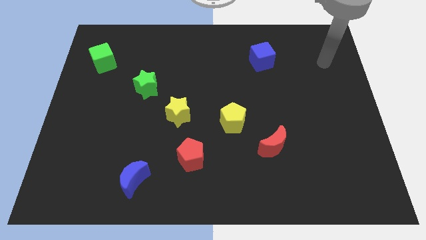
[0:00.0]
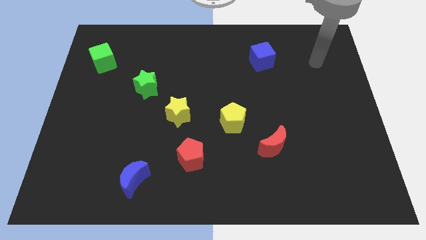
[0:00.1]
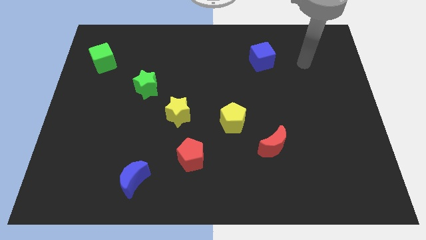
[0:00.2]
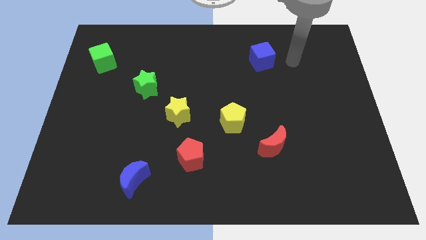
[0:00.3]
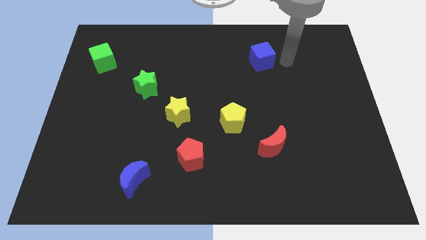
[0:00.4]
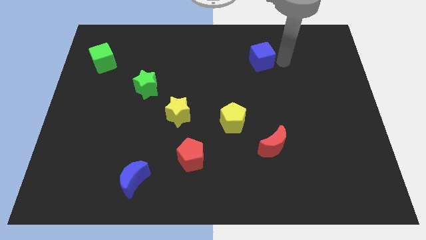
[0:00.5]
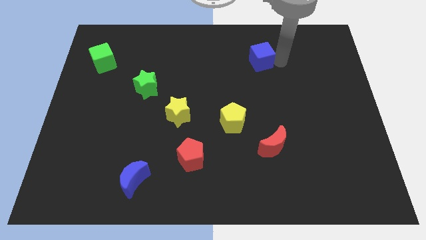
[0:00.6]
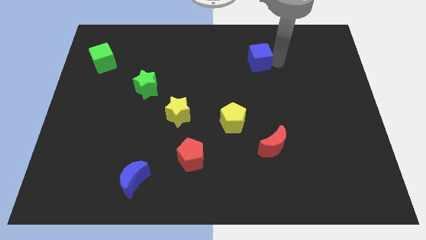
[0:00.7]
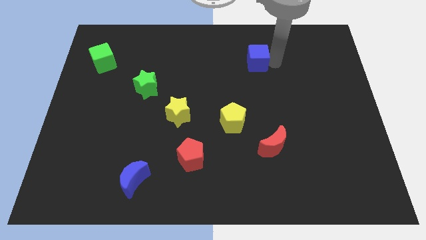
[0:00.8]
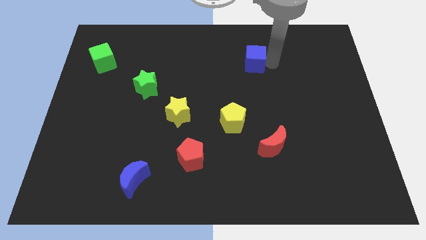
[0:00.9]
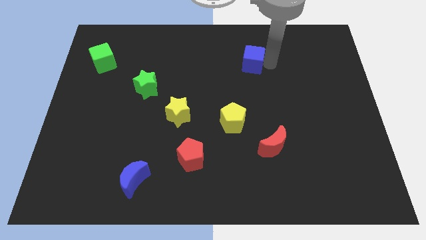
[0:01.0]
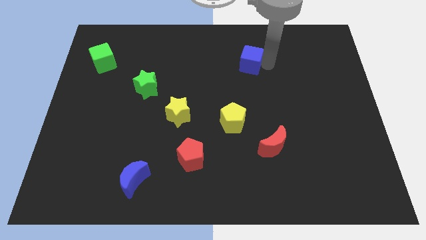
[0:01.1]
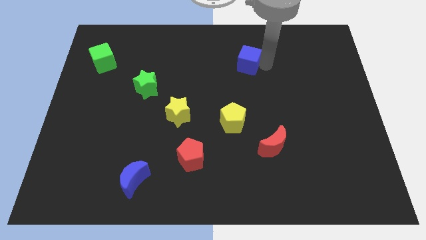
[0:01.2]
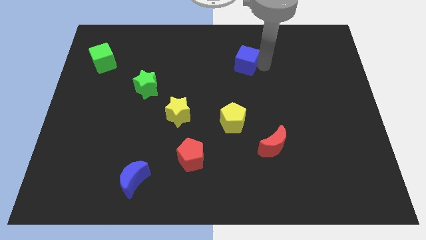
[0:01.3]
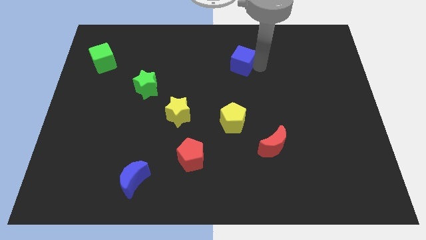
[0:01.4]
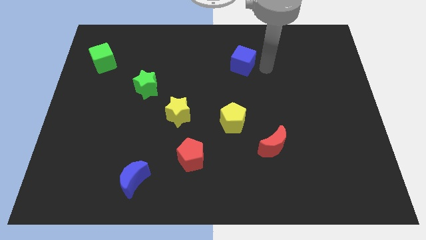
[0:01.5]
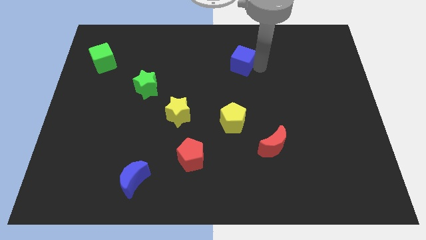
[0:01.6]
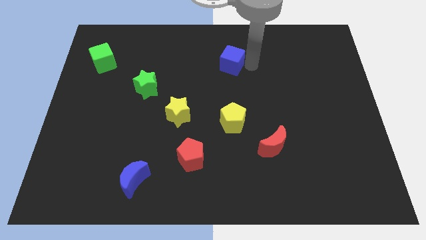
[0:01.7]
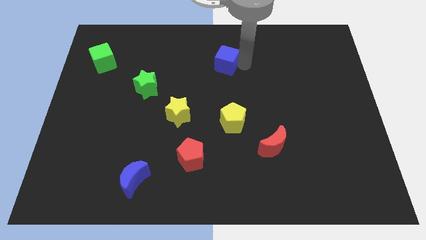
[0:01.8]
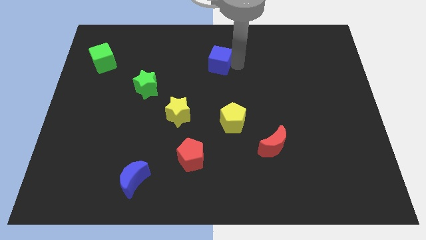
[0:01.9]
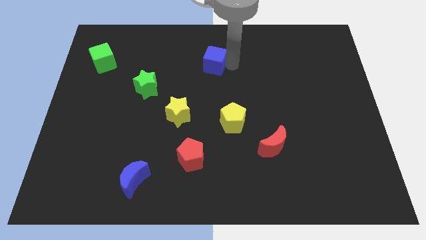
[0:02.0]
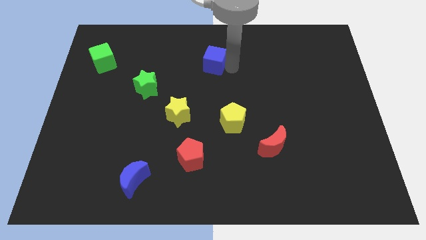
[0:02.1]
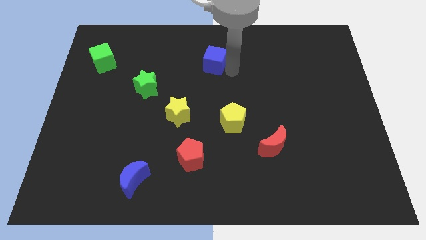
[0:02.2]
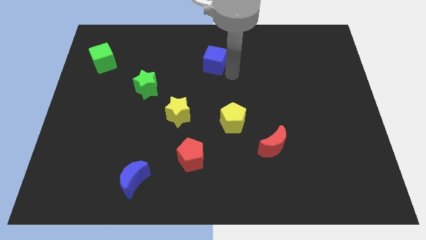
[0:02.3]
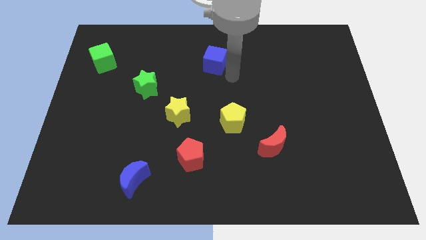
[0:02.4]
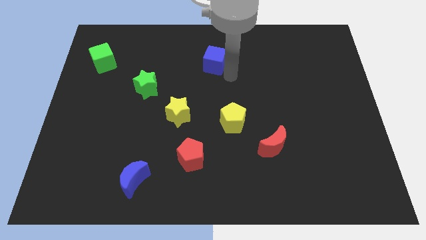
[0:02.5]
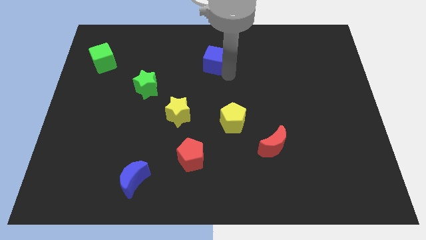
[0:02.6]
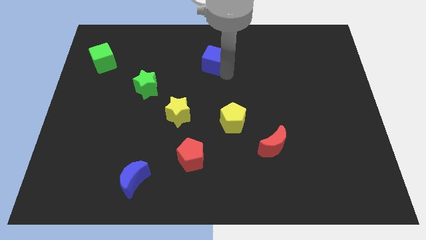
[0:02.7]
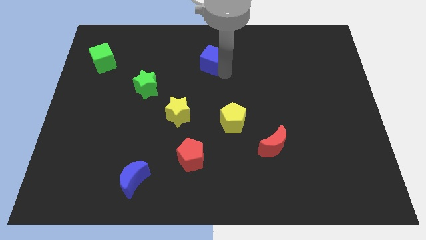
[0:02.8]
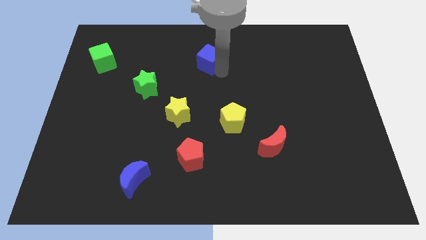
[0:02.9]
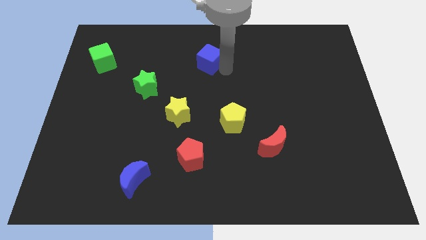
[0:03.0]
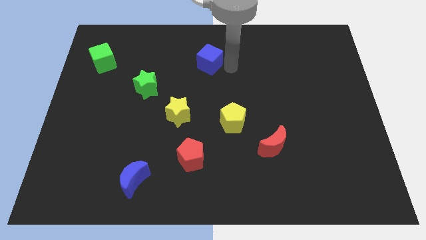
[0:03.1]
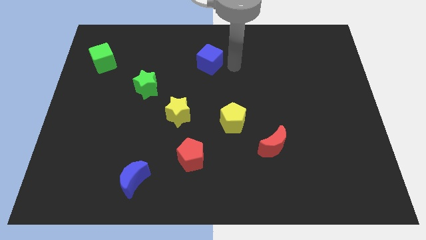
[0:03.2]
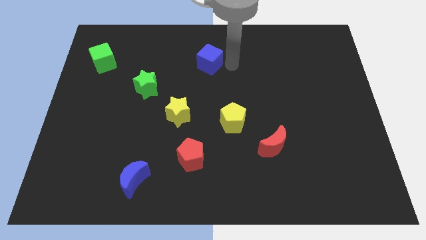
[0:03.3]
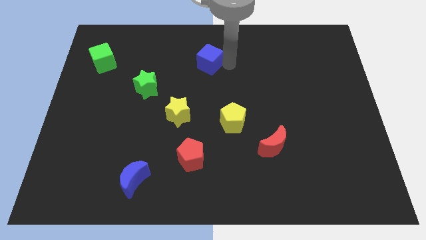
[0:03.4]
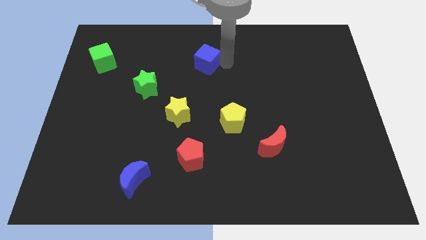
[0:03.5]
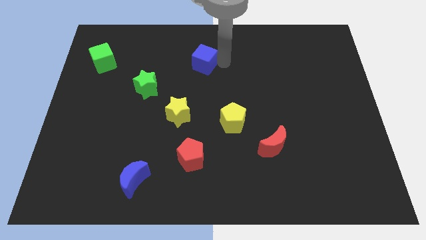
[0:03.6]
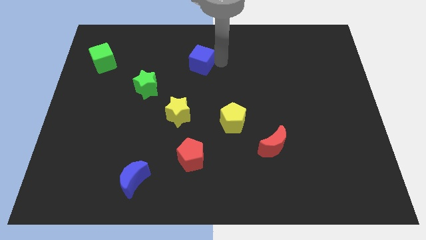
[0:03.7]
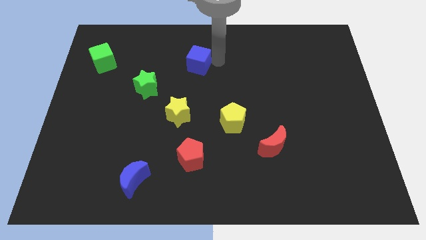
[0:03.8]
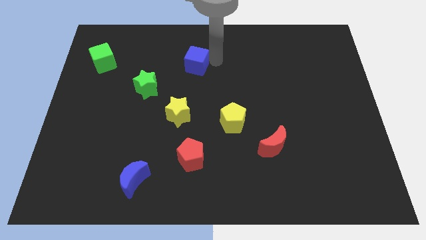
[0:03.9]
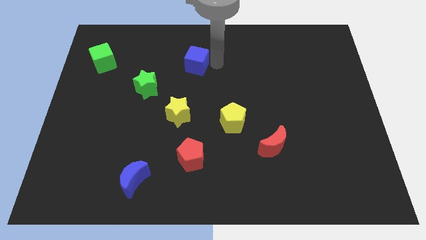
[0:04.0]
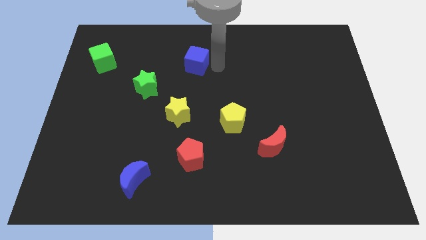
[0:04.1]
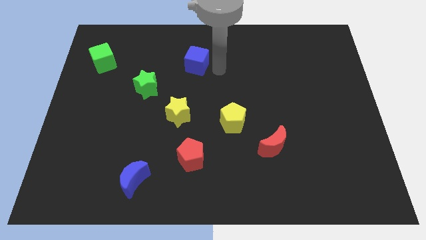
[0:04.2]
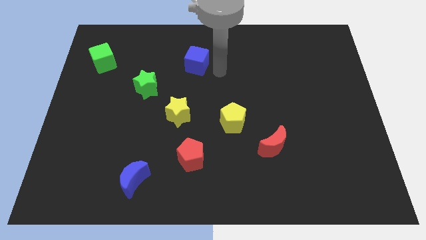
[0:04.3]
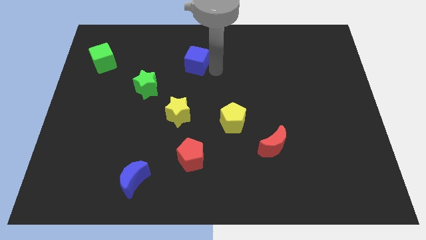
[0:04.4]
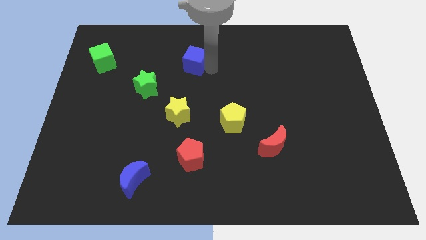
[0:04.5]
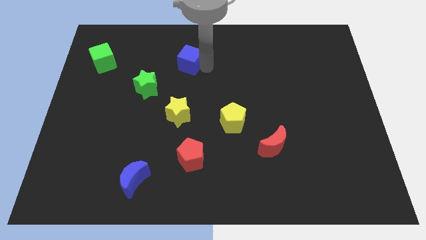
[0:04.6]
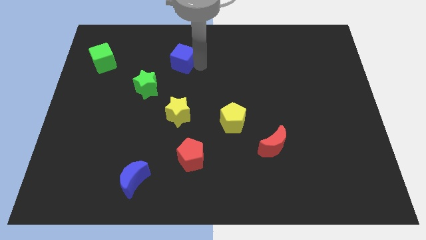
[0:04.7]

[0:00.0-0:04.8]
slide the blue cube to the left

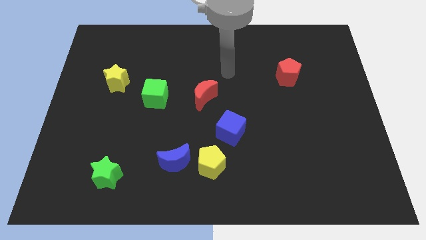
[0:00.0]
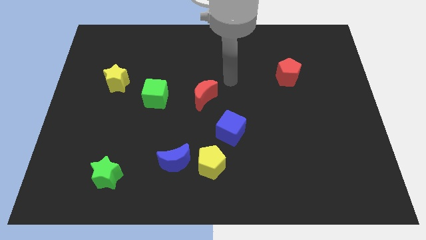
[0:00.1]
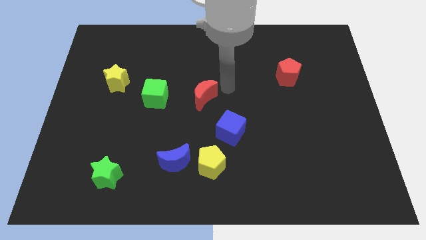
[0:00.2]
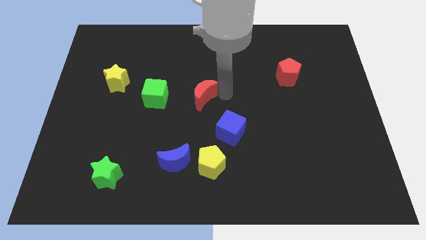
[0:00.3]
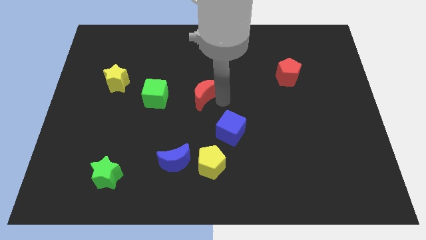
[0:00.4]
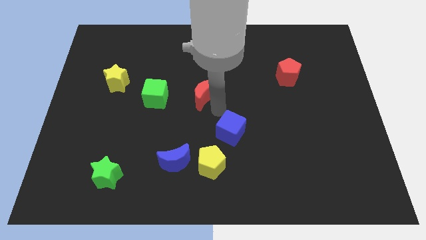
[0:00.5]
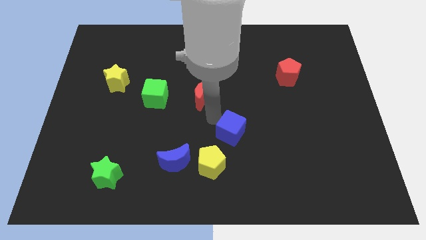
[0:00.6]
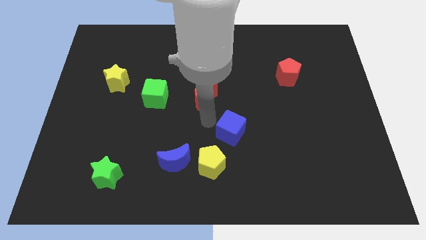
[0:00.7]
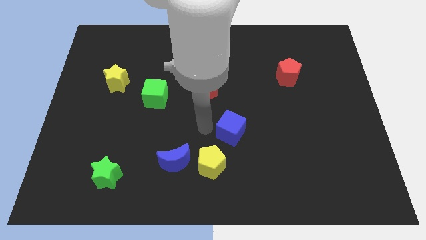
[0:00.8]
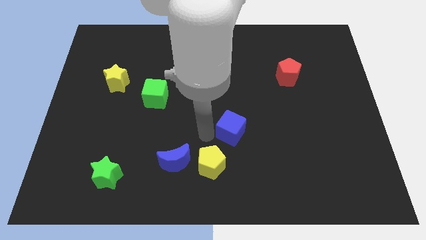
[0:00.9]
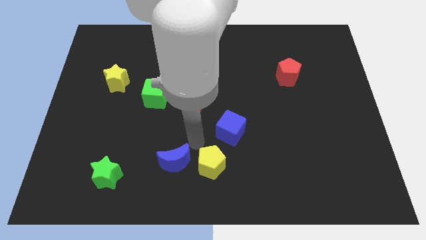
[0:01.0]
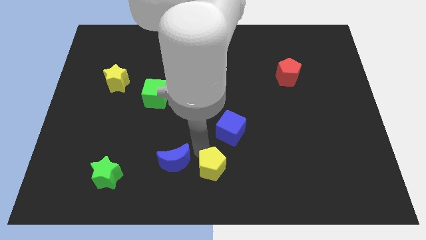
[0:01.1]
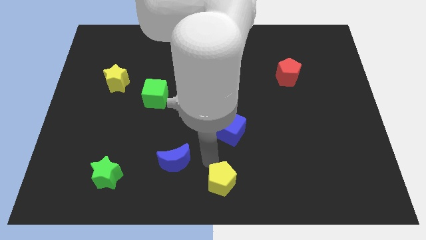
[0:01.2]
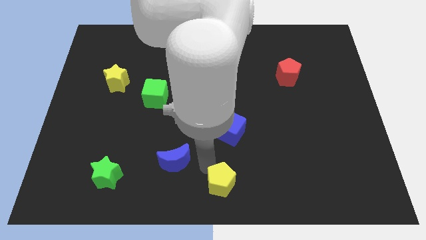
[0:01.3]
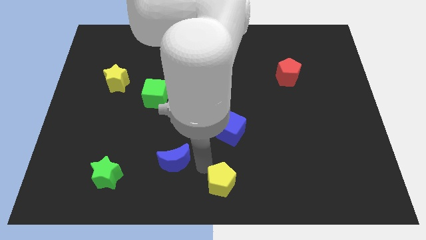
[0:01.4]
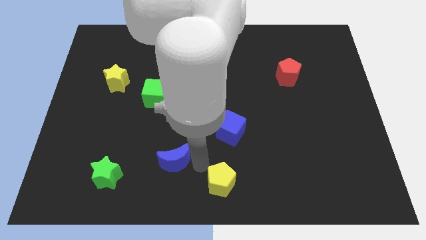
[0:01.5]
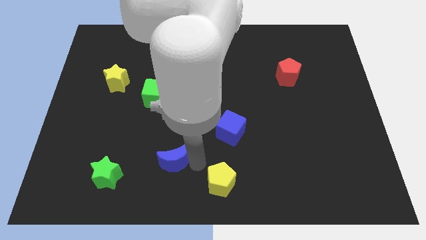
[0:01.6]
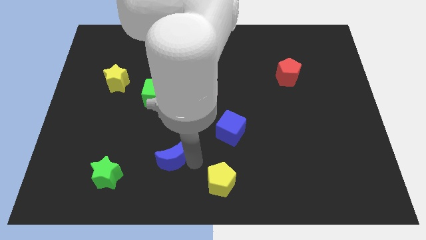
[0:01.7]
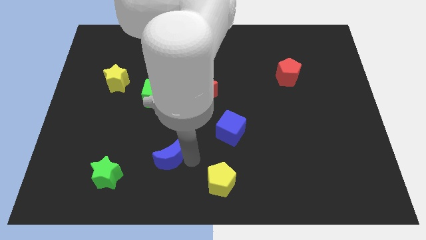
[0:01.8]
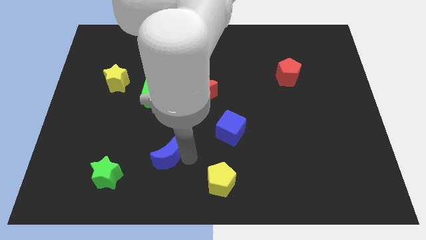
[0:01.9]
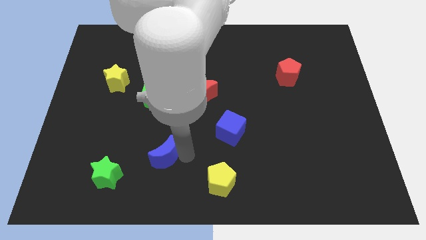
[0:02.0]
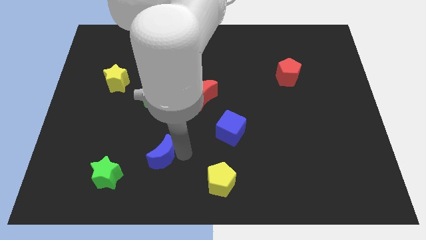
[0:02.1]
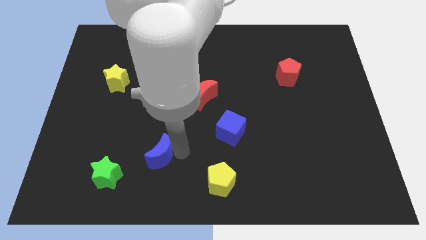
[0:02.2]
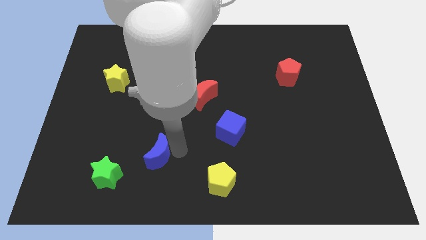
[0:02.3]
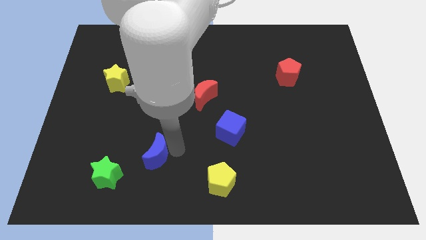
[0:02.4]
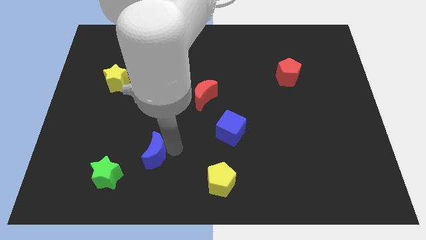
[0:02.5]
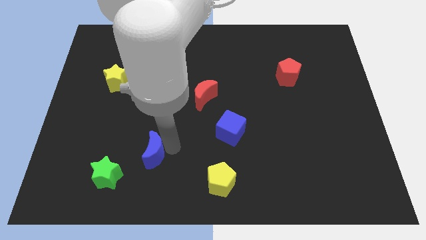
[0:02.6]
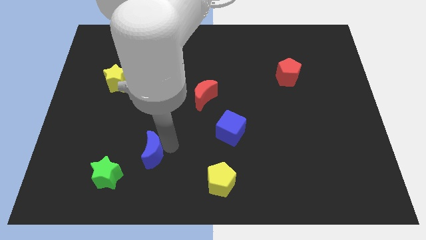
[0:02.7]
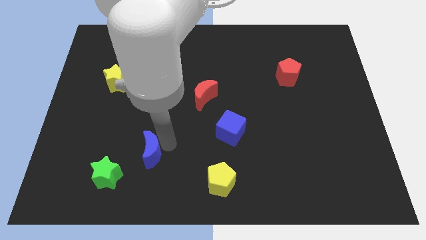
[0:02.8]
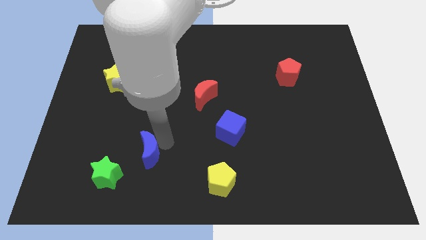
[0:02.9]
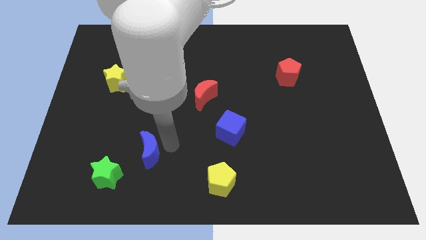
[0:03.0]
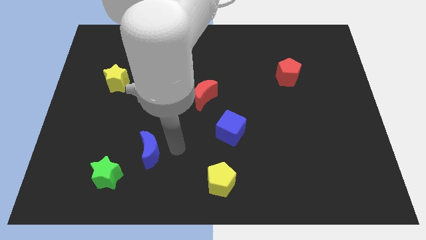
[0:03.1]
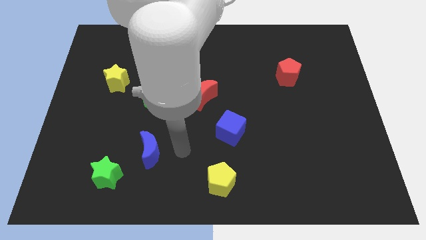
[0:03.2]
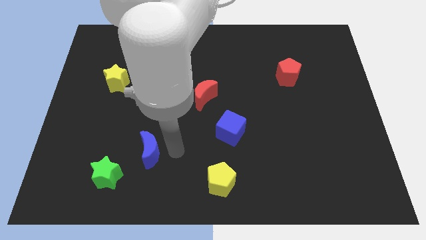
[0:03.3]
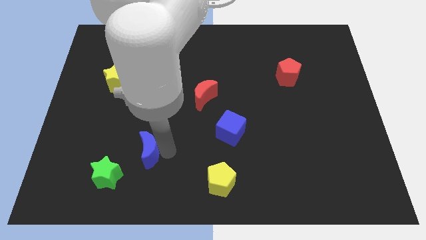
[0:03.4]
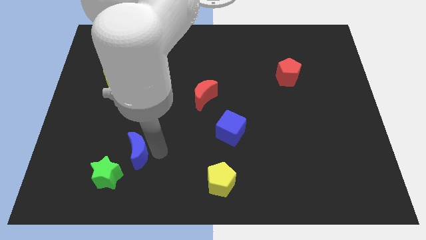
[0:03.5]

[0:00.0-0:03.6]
slightly push the blue moon left
